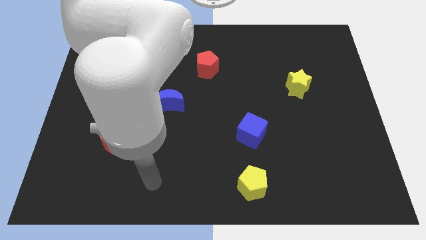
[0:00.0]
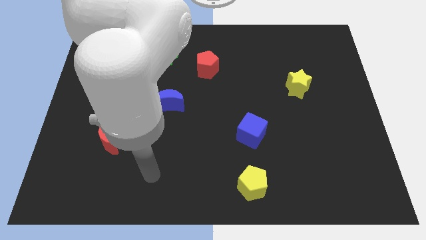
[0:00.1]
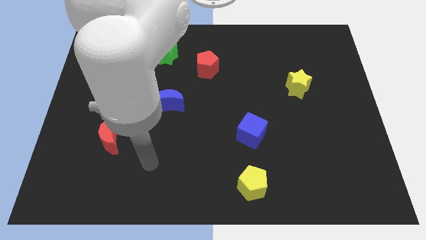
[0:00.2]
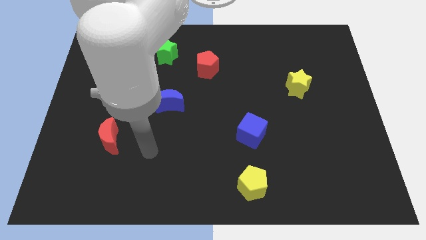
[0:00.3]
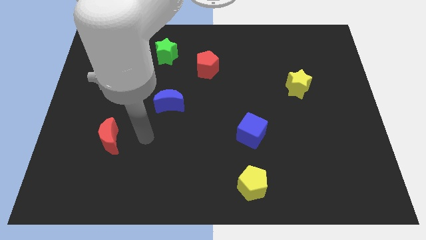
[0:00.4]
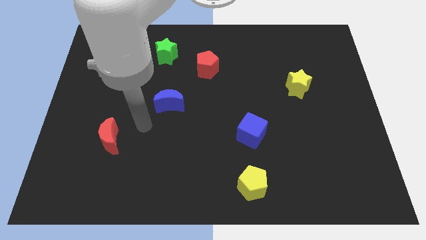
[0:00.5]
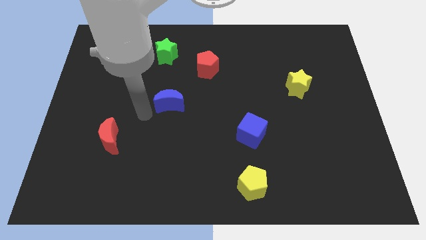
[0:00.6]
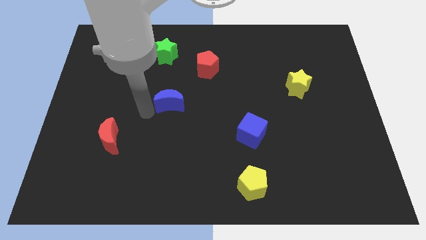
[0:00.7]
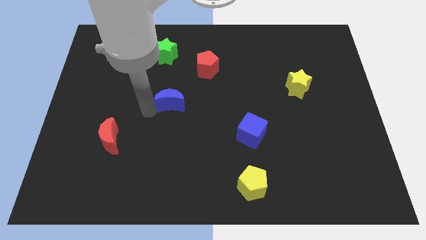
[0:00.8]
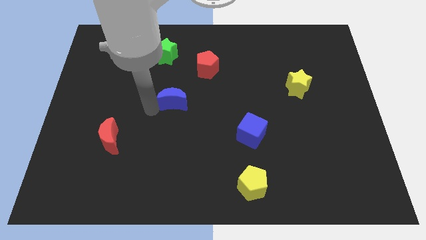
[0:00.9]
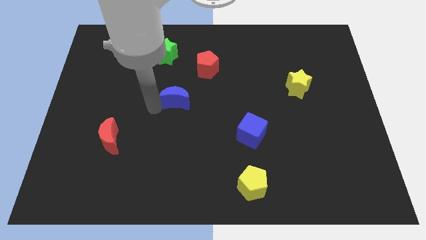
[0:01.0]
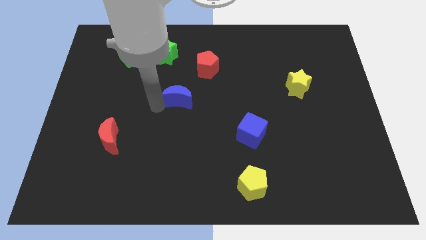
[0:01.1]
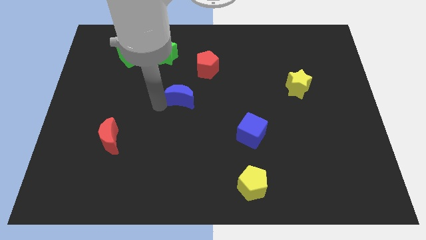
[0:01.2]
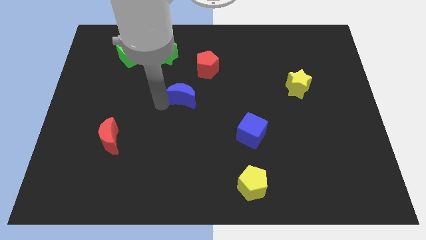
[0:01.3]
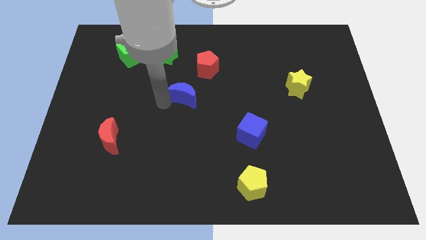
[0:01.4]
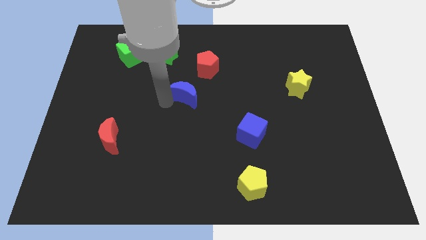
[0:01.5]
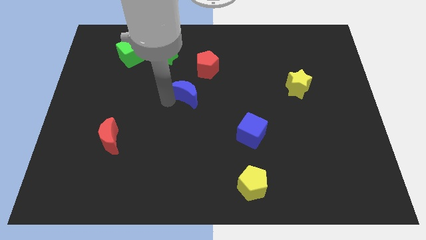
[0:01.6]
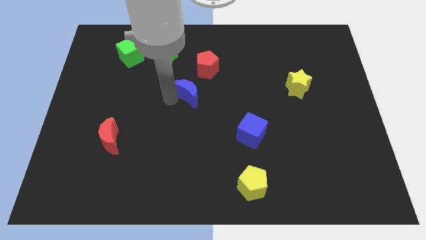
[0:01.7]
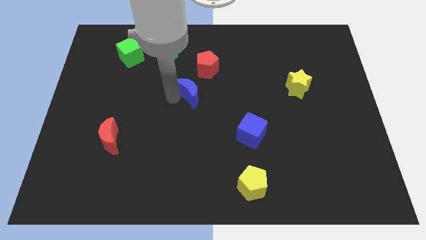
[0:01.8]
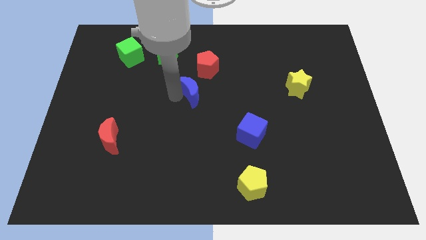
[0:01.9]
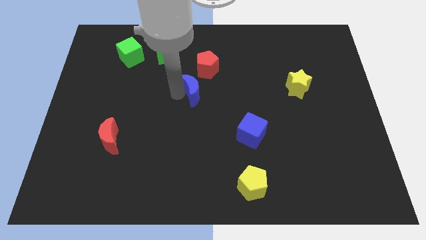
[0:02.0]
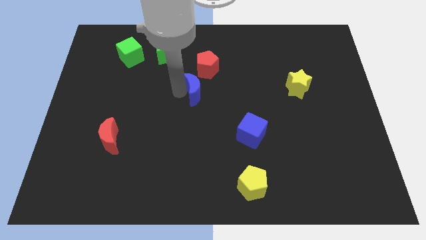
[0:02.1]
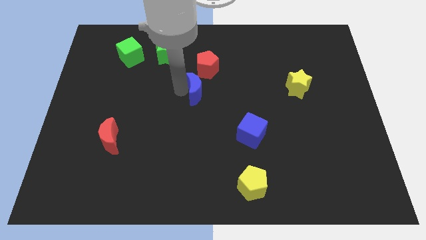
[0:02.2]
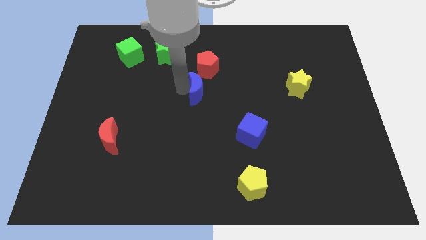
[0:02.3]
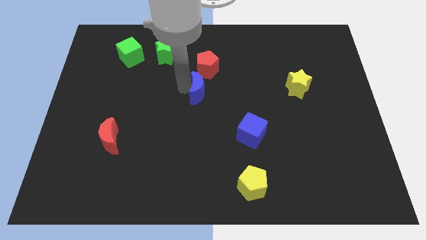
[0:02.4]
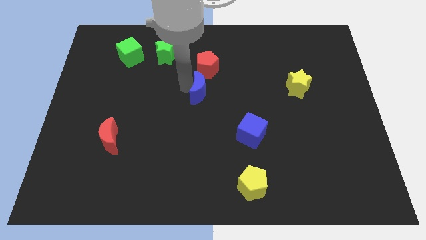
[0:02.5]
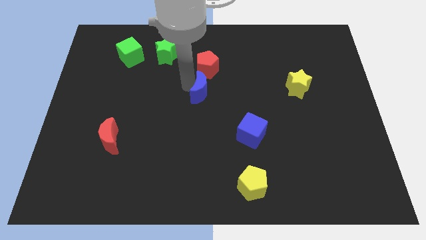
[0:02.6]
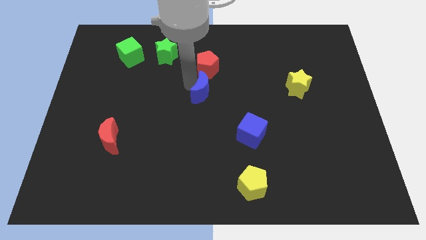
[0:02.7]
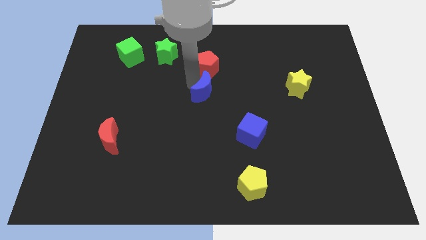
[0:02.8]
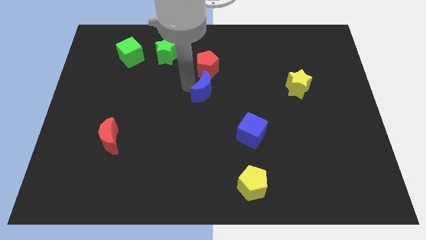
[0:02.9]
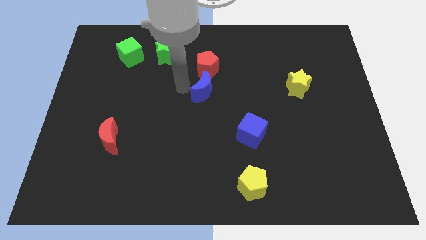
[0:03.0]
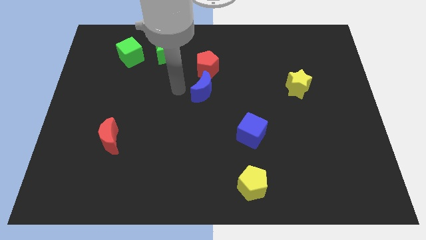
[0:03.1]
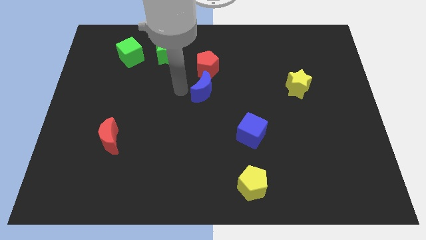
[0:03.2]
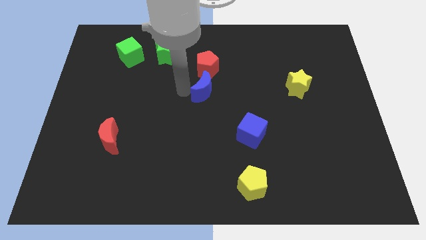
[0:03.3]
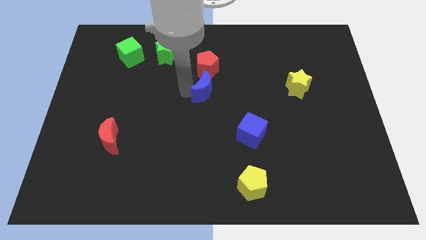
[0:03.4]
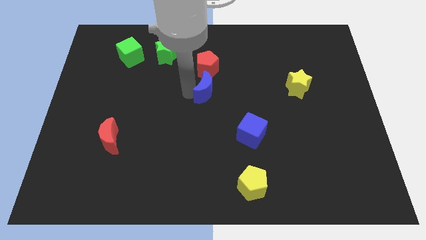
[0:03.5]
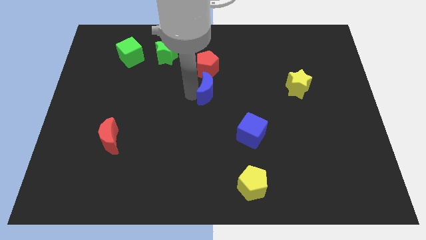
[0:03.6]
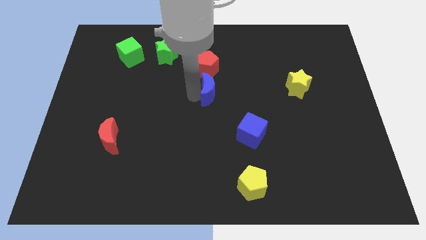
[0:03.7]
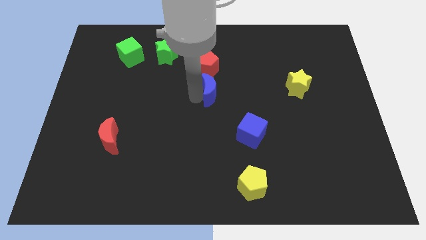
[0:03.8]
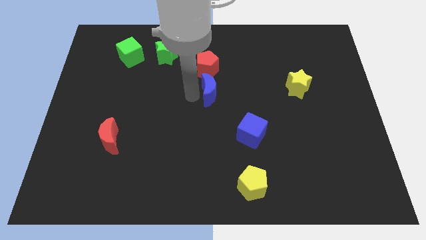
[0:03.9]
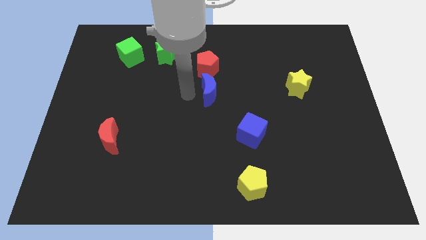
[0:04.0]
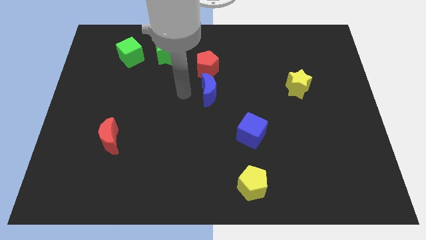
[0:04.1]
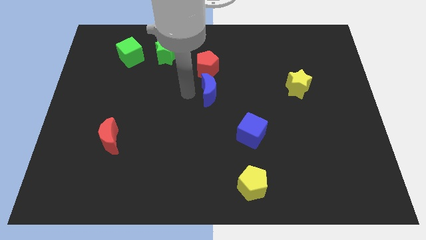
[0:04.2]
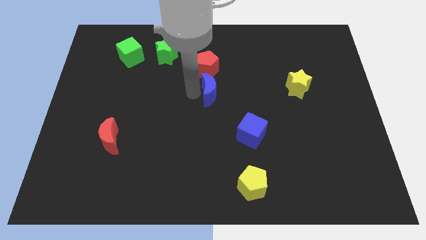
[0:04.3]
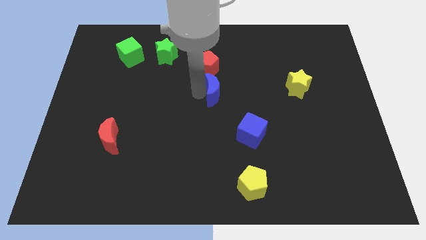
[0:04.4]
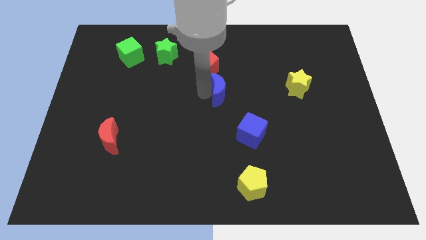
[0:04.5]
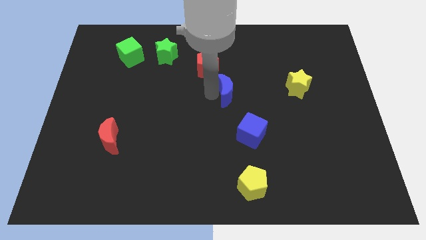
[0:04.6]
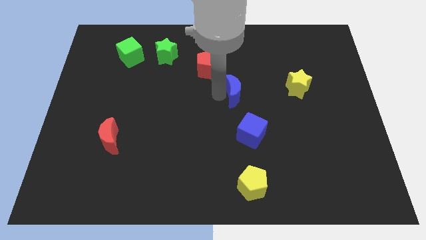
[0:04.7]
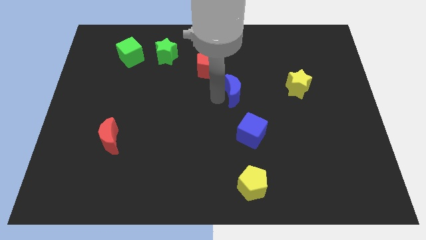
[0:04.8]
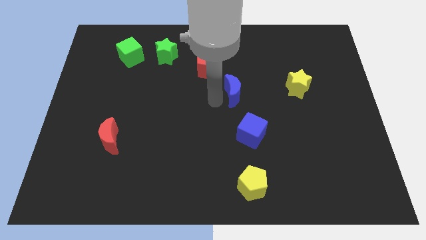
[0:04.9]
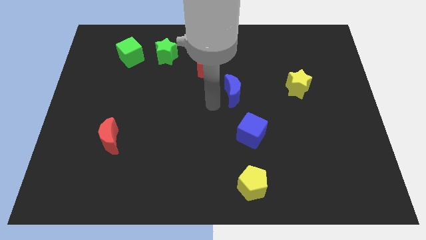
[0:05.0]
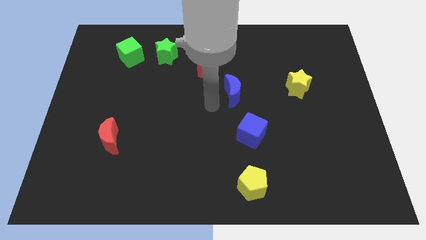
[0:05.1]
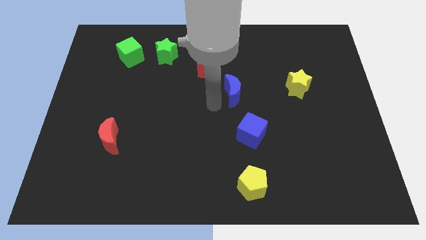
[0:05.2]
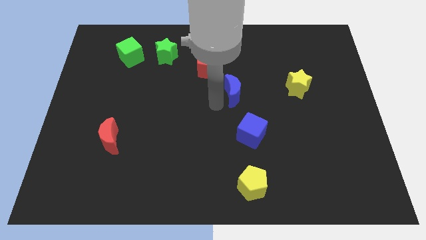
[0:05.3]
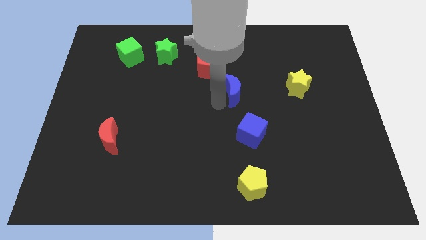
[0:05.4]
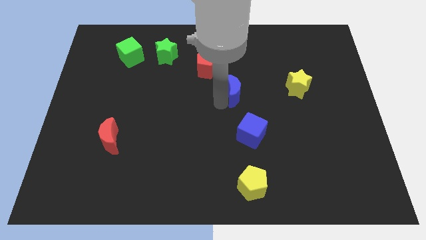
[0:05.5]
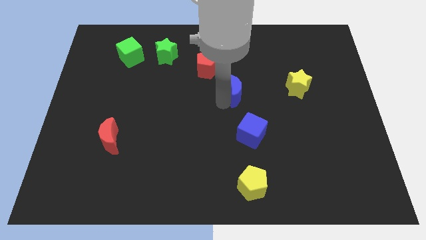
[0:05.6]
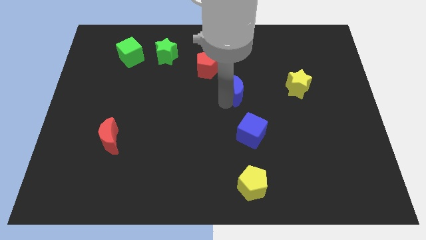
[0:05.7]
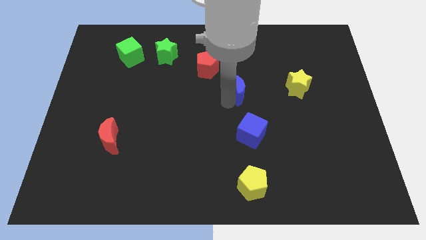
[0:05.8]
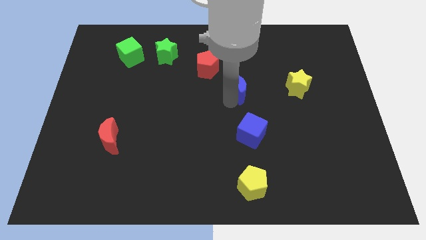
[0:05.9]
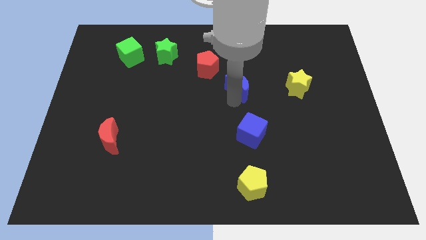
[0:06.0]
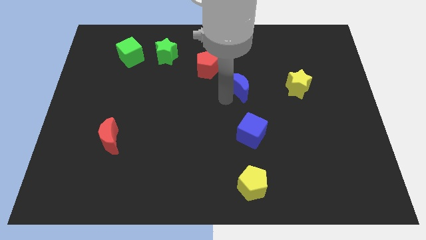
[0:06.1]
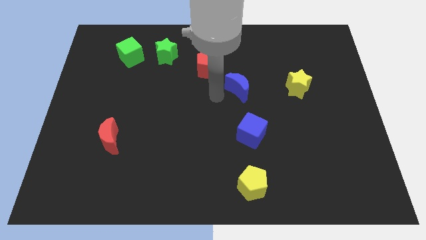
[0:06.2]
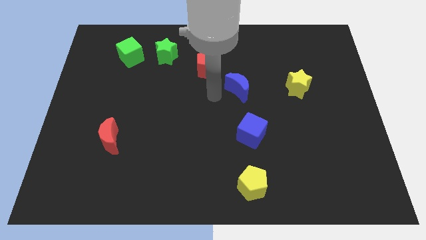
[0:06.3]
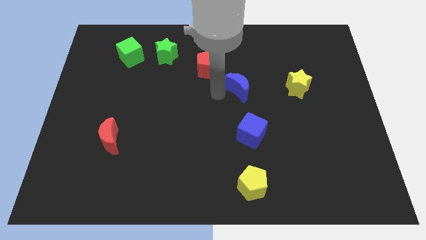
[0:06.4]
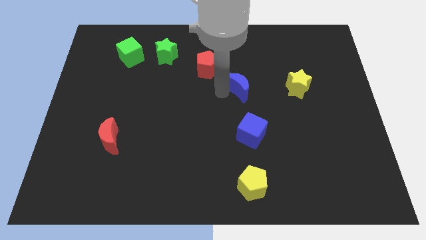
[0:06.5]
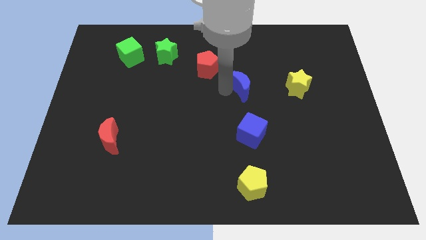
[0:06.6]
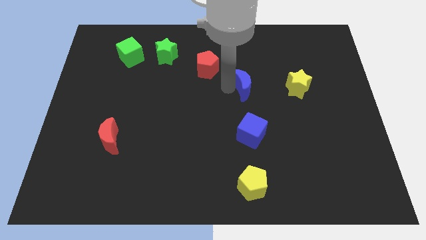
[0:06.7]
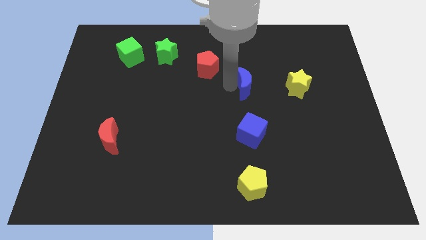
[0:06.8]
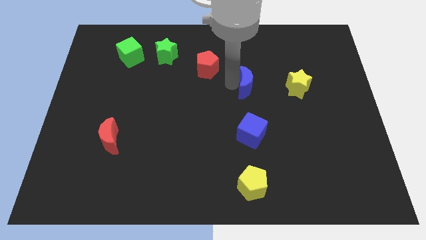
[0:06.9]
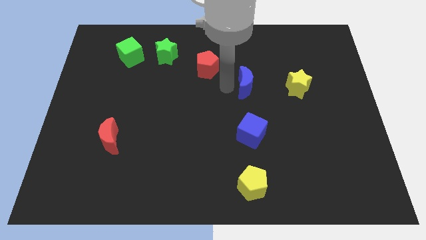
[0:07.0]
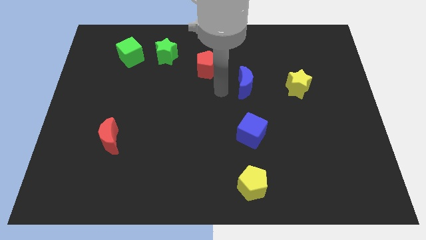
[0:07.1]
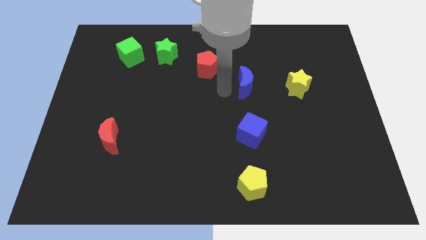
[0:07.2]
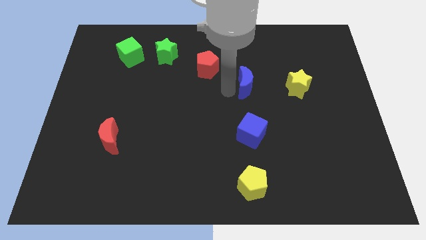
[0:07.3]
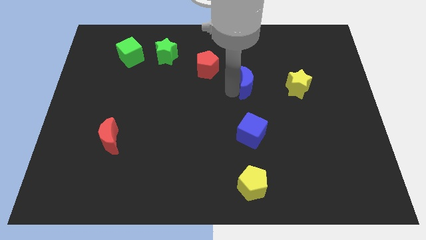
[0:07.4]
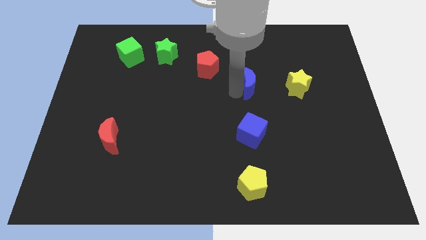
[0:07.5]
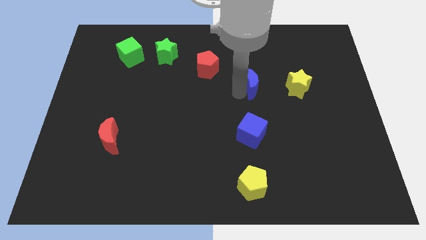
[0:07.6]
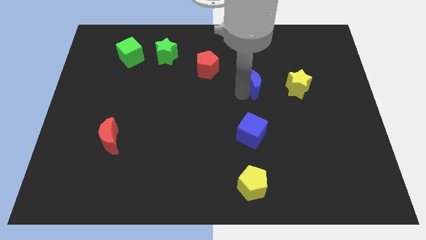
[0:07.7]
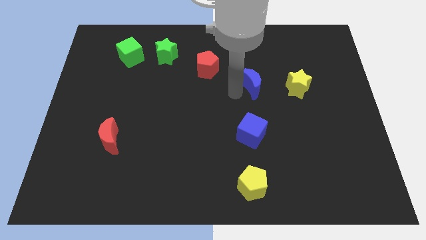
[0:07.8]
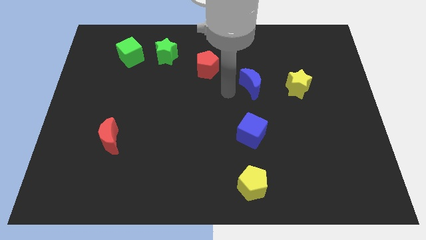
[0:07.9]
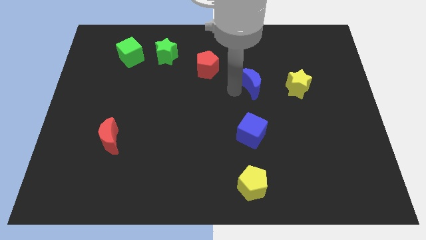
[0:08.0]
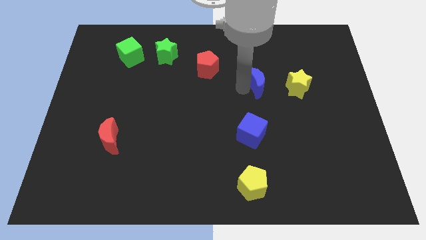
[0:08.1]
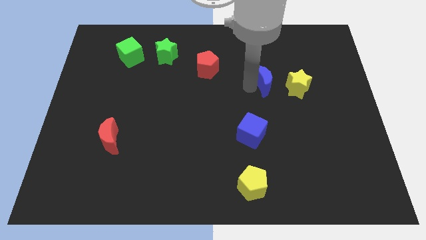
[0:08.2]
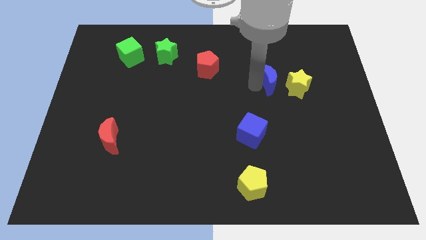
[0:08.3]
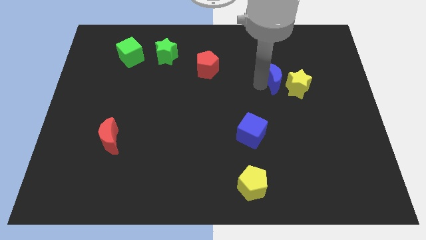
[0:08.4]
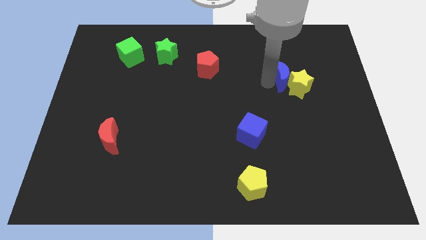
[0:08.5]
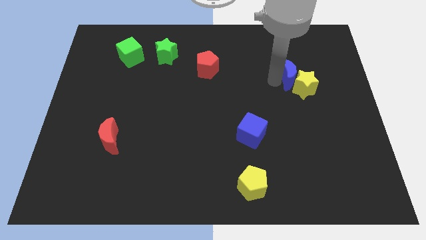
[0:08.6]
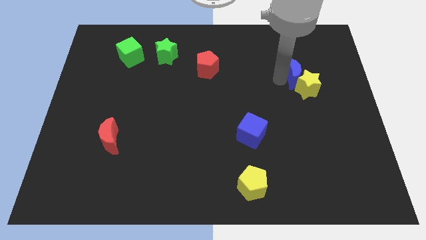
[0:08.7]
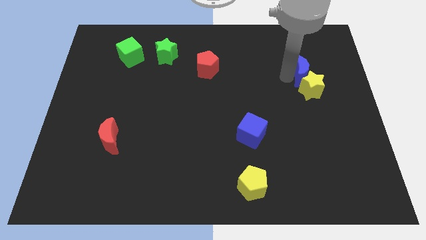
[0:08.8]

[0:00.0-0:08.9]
move the blue moon to the top right side of the yellow star
